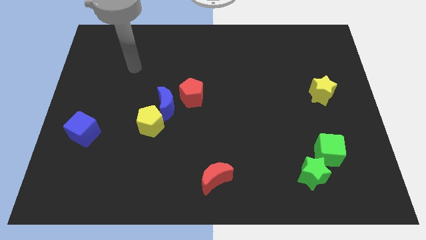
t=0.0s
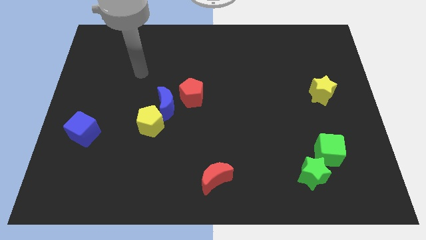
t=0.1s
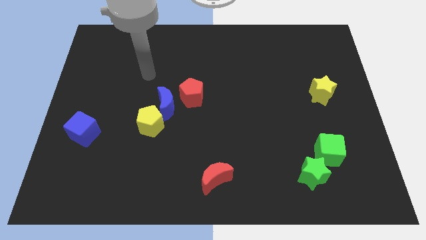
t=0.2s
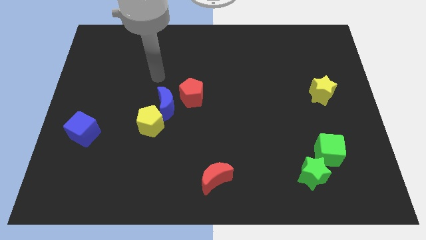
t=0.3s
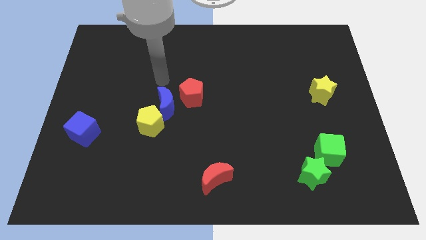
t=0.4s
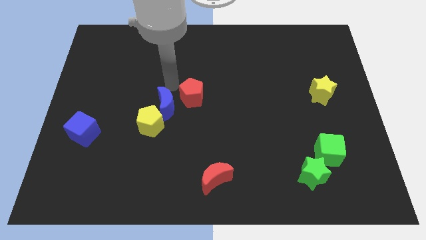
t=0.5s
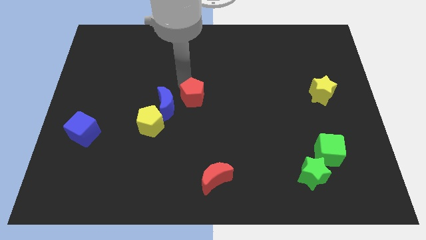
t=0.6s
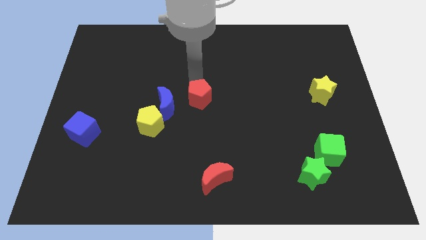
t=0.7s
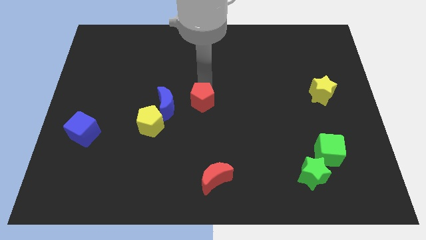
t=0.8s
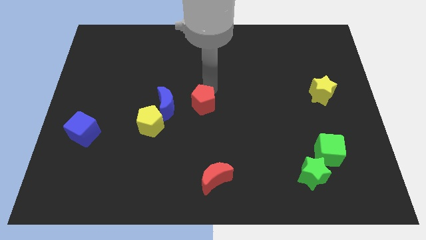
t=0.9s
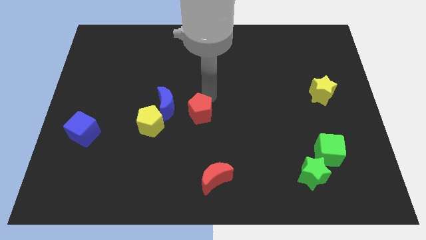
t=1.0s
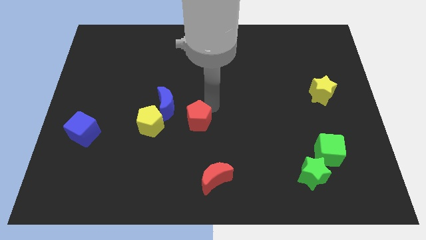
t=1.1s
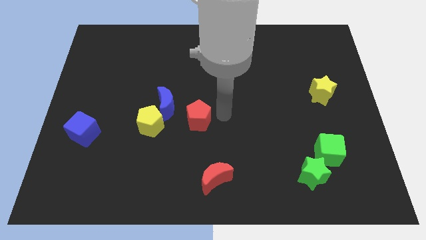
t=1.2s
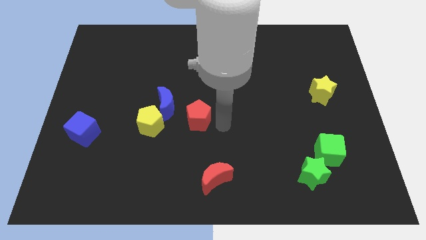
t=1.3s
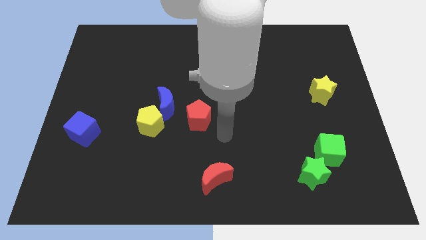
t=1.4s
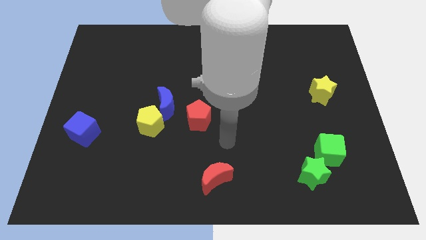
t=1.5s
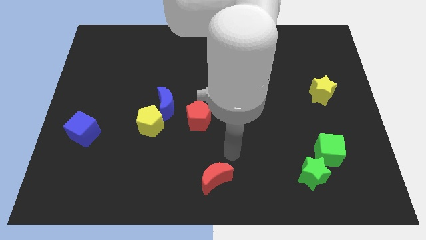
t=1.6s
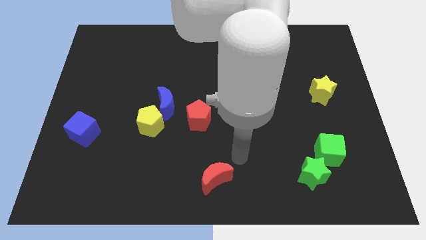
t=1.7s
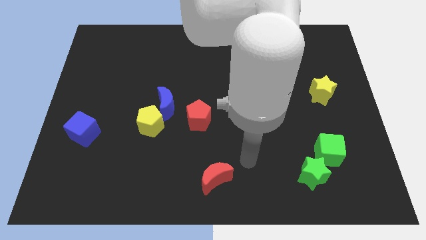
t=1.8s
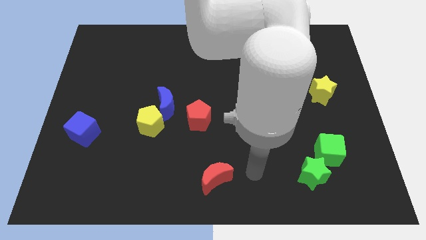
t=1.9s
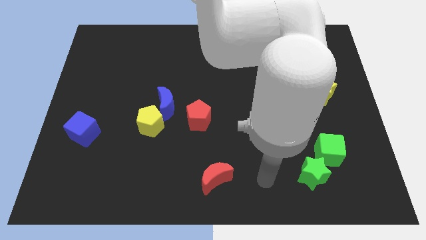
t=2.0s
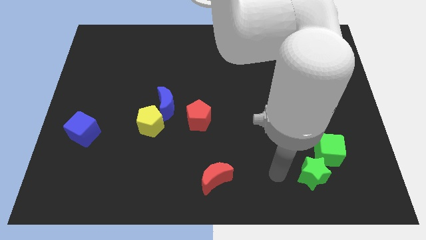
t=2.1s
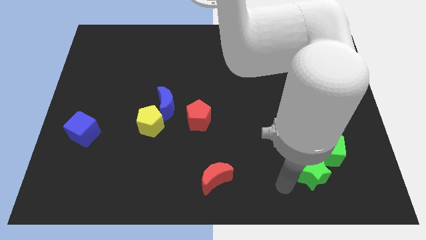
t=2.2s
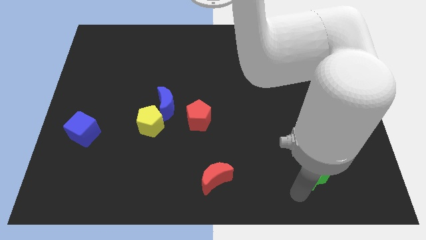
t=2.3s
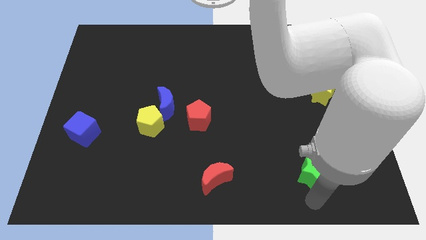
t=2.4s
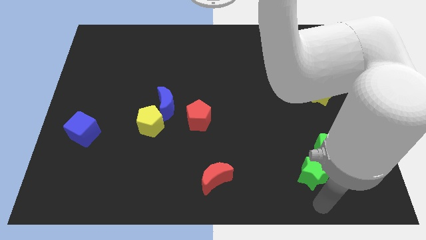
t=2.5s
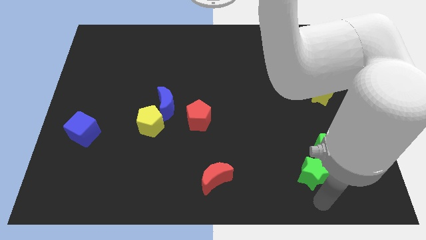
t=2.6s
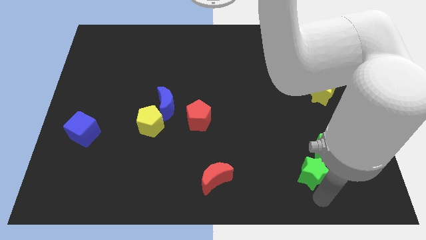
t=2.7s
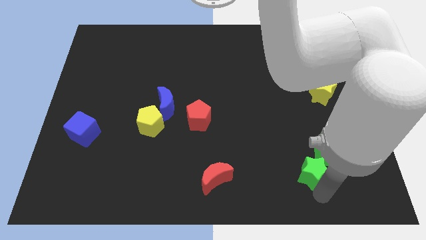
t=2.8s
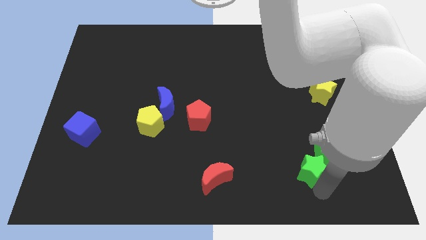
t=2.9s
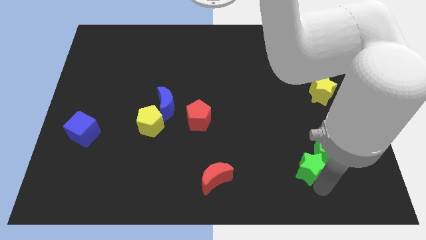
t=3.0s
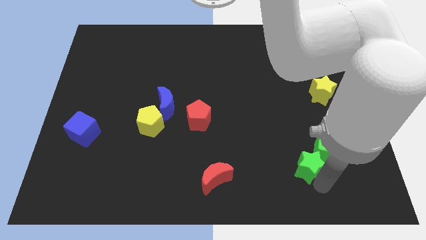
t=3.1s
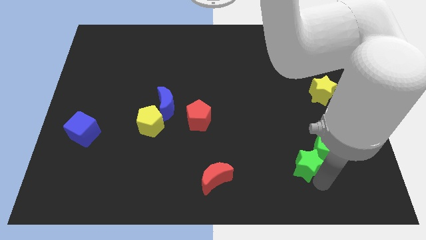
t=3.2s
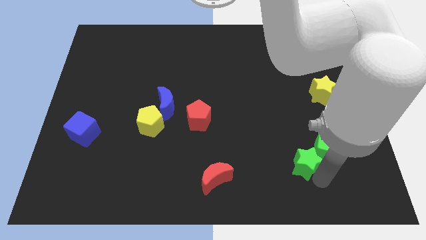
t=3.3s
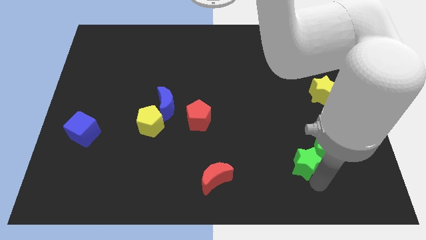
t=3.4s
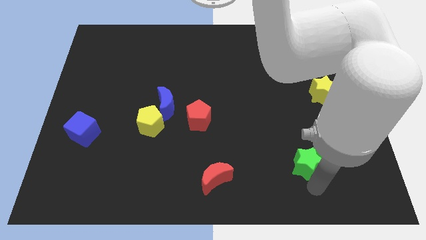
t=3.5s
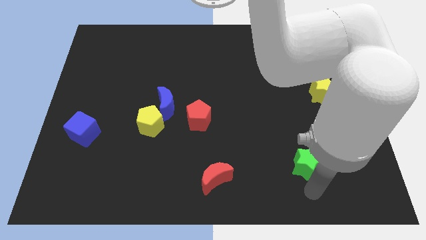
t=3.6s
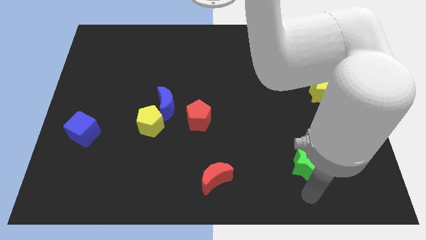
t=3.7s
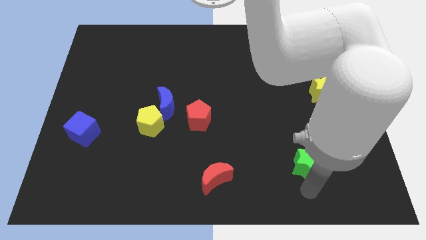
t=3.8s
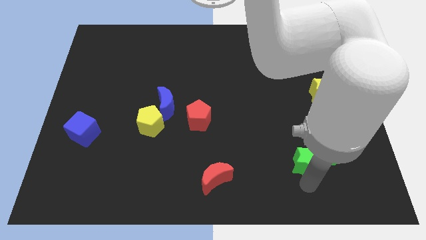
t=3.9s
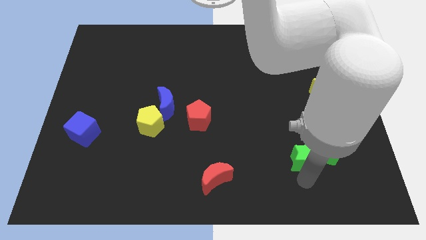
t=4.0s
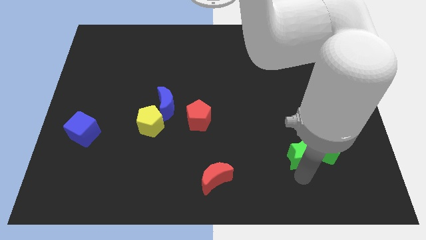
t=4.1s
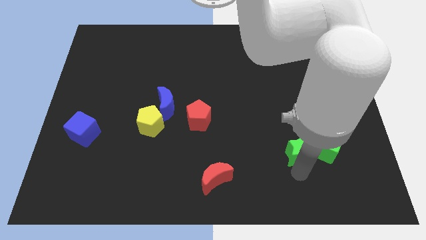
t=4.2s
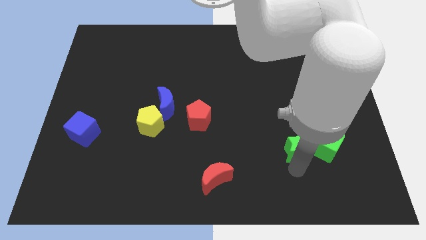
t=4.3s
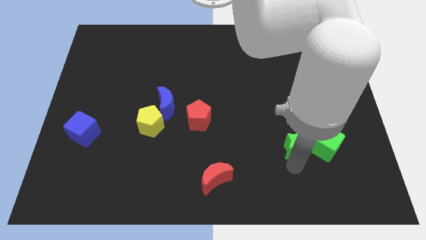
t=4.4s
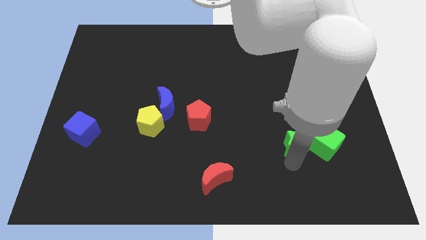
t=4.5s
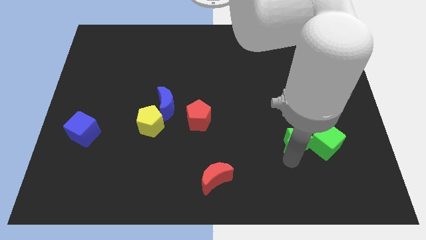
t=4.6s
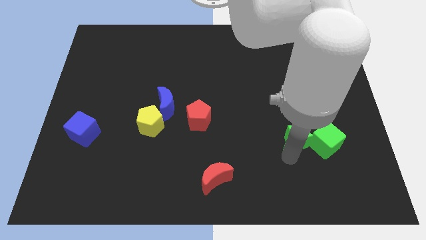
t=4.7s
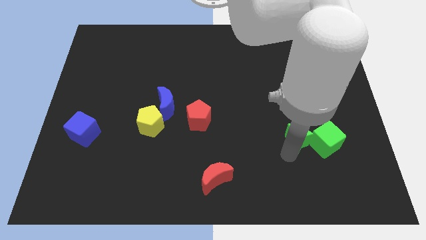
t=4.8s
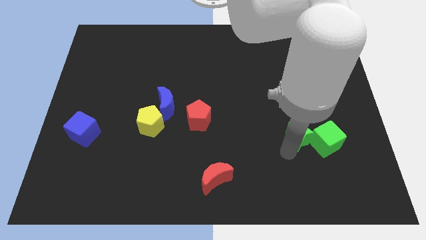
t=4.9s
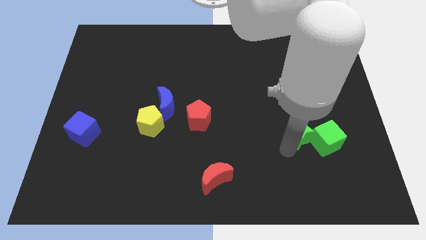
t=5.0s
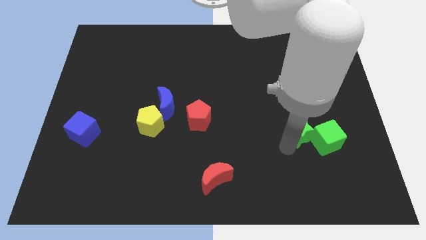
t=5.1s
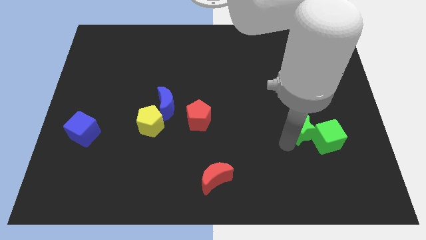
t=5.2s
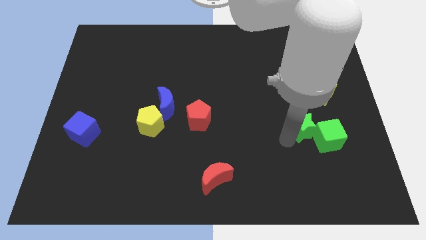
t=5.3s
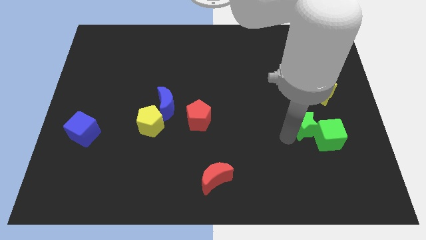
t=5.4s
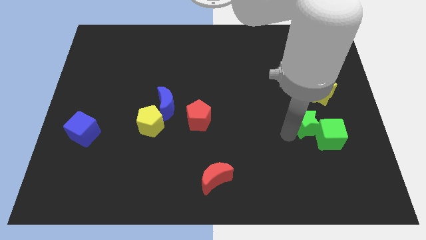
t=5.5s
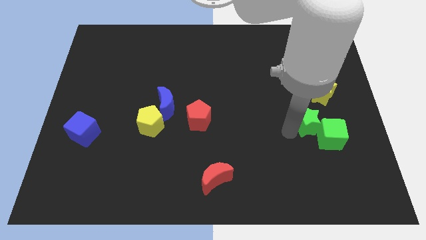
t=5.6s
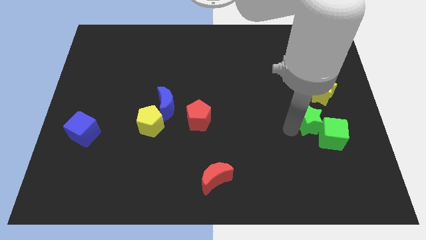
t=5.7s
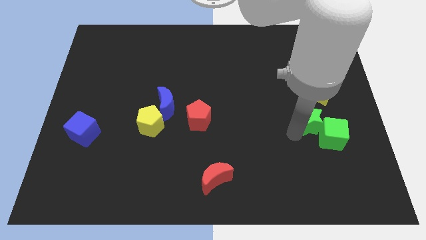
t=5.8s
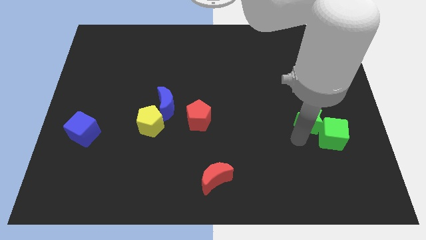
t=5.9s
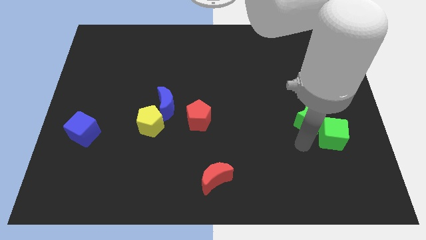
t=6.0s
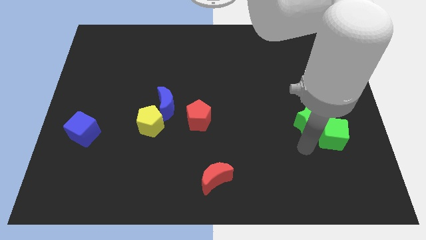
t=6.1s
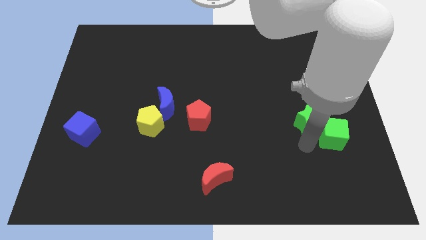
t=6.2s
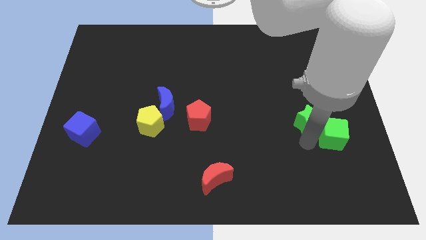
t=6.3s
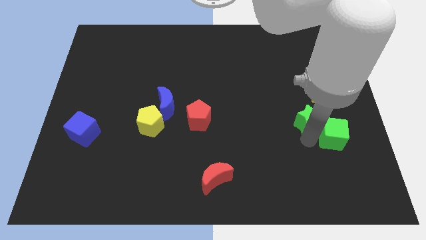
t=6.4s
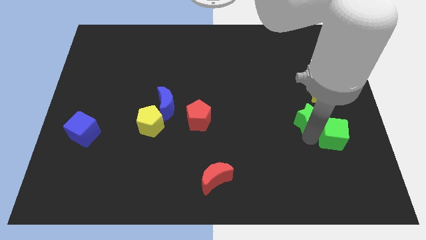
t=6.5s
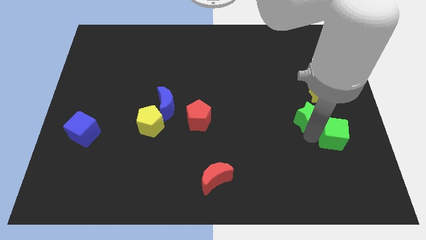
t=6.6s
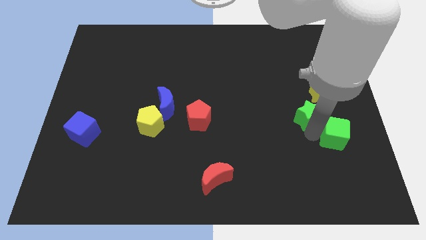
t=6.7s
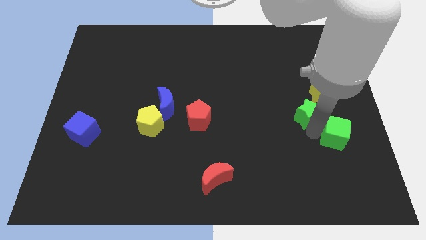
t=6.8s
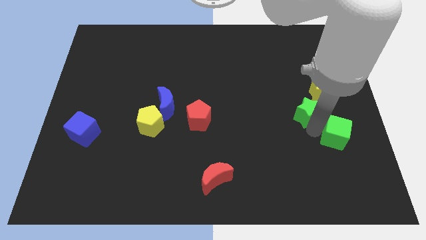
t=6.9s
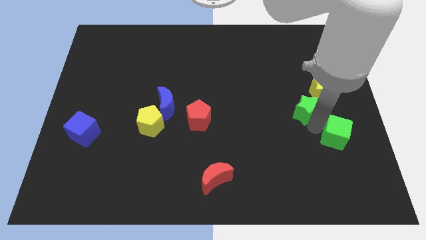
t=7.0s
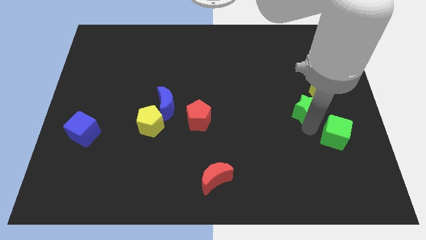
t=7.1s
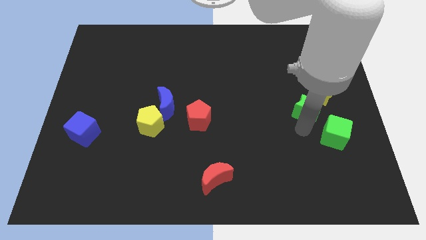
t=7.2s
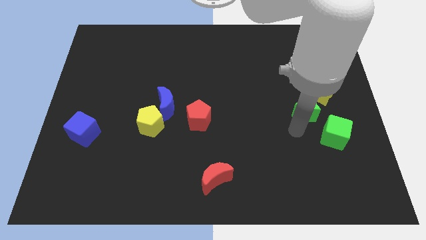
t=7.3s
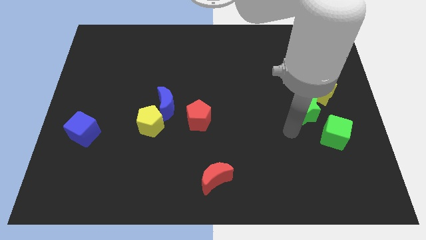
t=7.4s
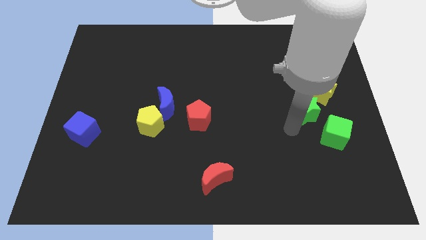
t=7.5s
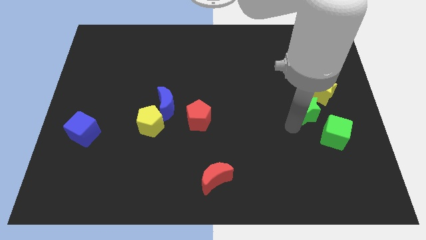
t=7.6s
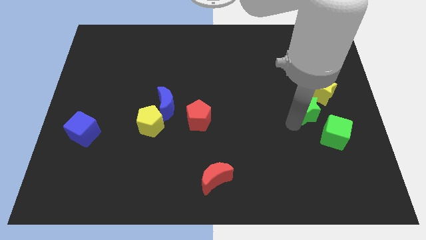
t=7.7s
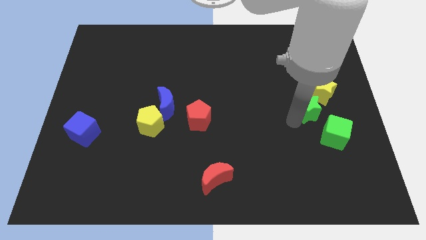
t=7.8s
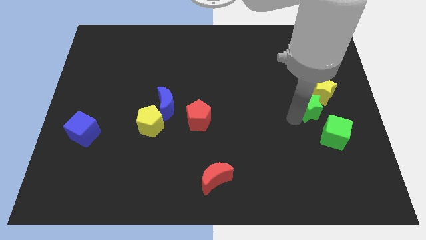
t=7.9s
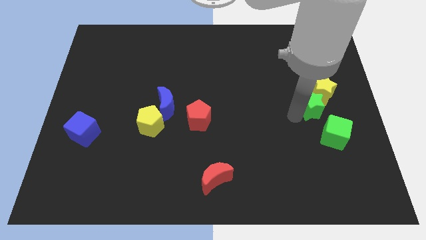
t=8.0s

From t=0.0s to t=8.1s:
push the green star next to the yellow star
